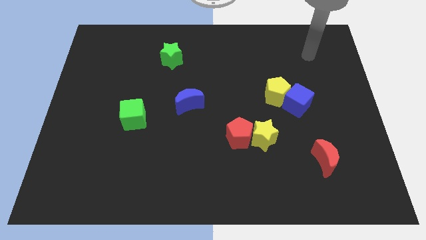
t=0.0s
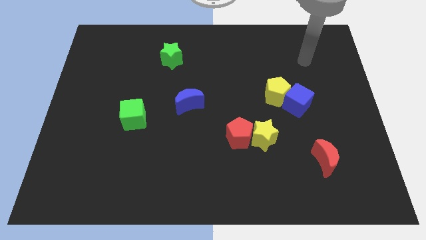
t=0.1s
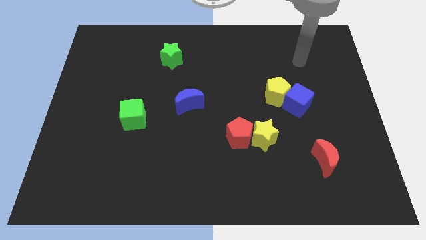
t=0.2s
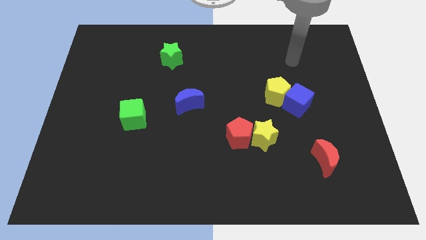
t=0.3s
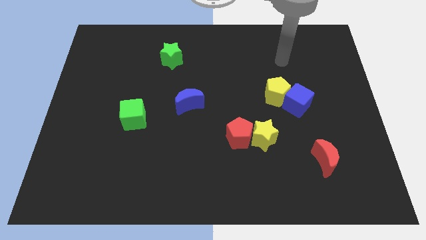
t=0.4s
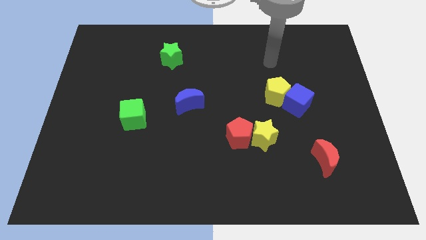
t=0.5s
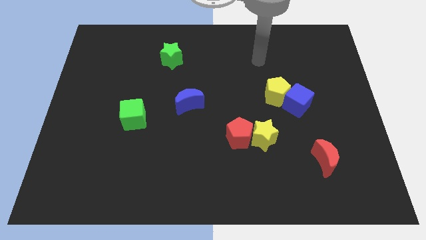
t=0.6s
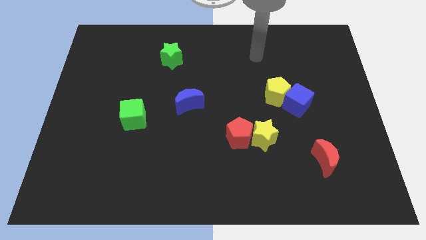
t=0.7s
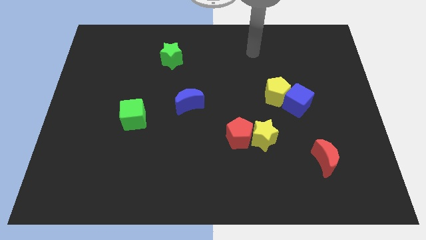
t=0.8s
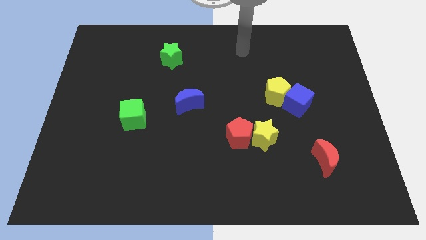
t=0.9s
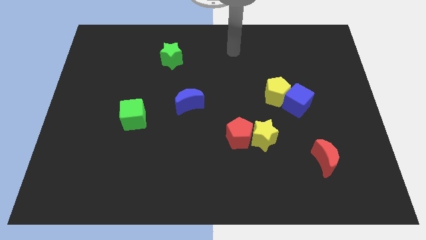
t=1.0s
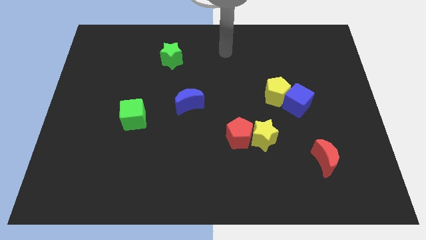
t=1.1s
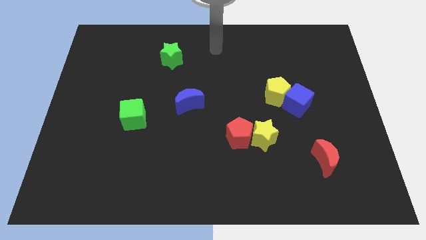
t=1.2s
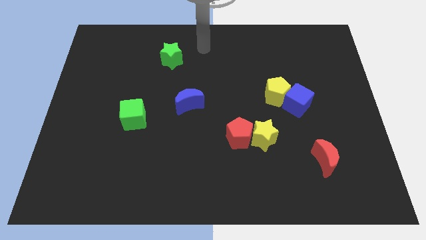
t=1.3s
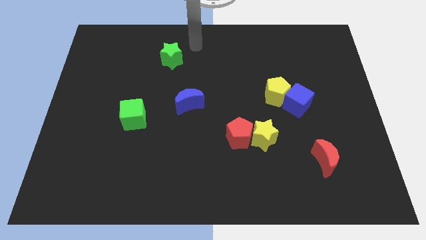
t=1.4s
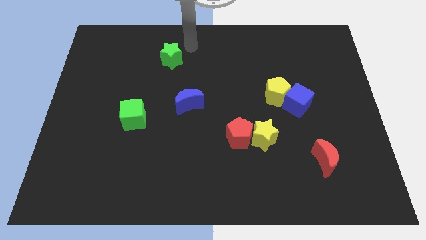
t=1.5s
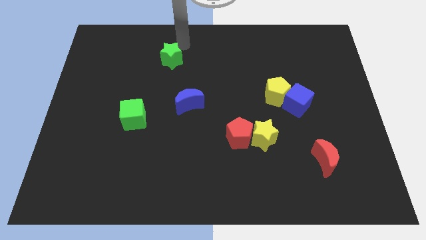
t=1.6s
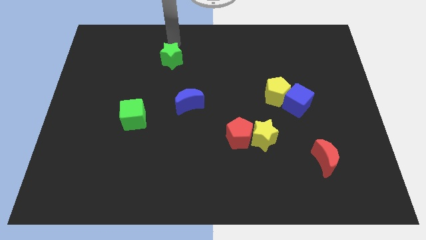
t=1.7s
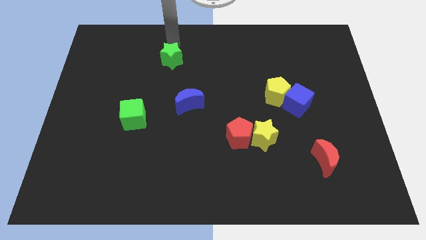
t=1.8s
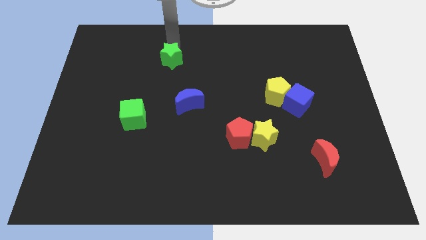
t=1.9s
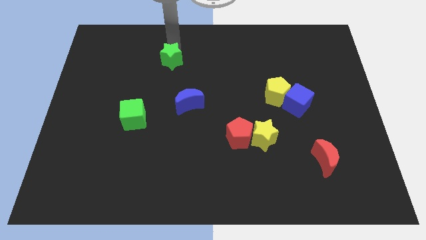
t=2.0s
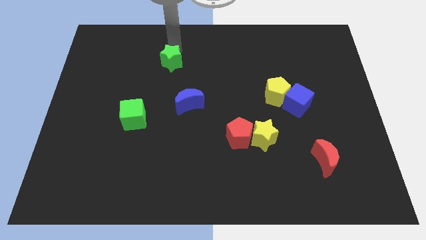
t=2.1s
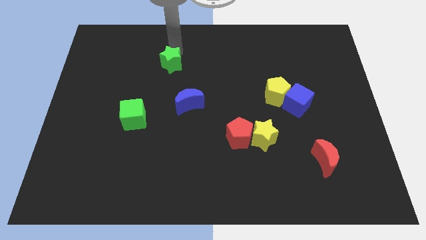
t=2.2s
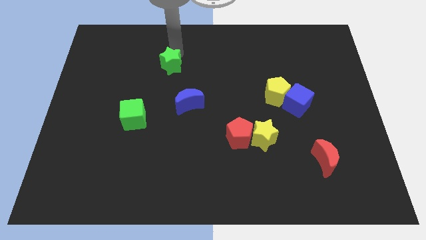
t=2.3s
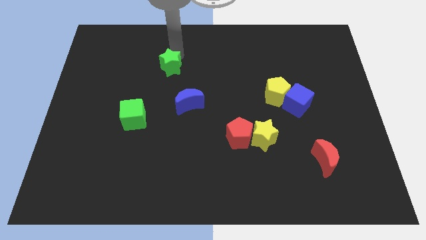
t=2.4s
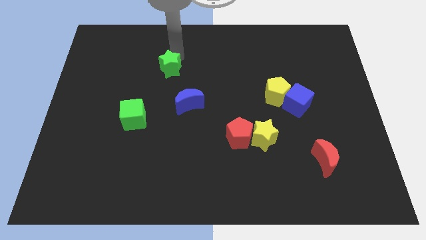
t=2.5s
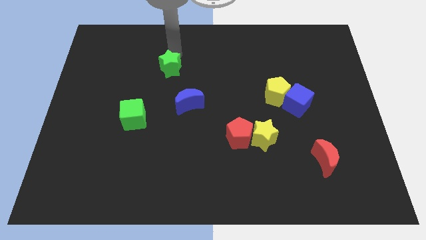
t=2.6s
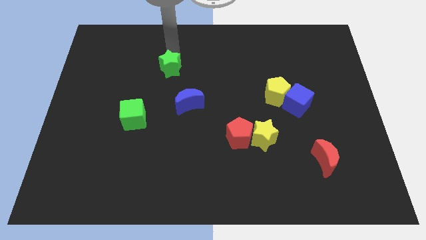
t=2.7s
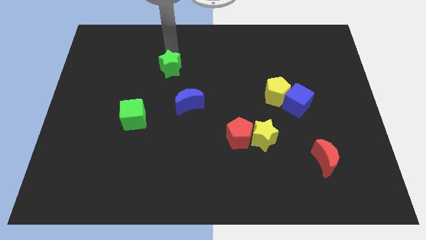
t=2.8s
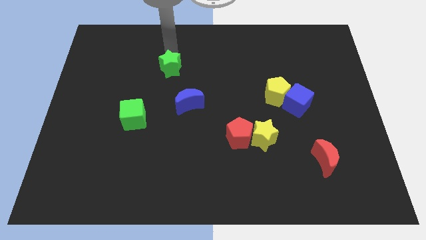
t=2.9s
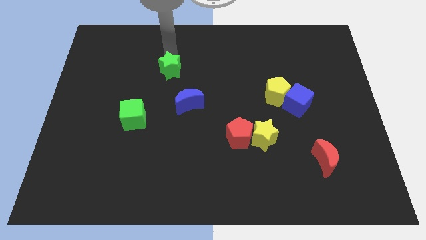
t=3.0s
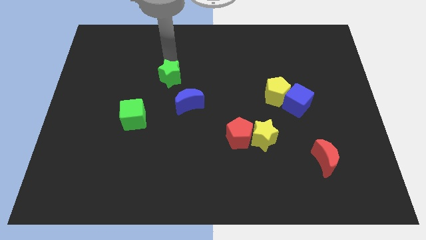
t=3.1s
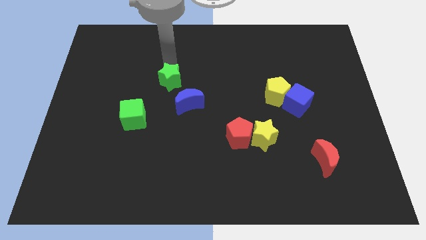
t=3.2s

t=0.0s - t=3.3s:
push the green star slightly down

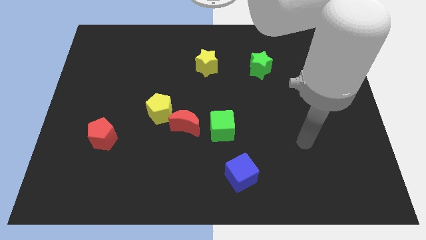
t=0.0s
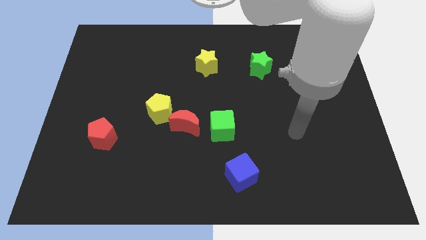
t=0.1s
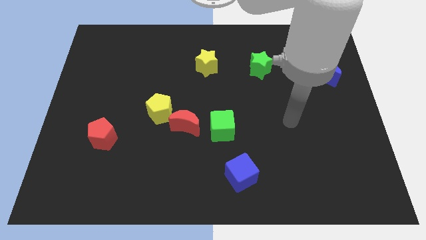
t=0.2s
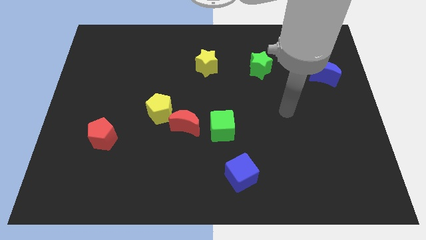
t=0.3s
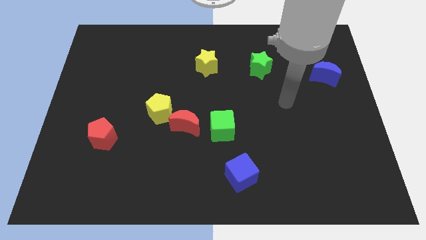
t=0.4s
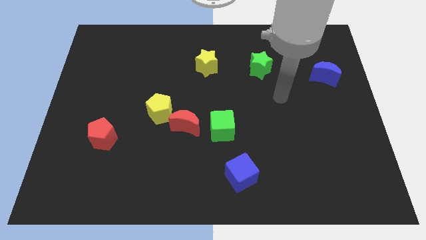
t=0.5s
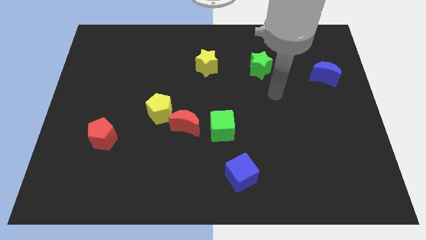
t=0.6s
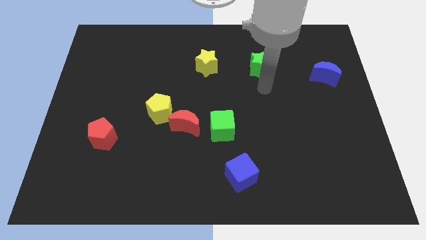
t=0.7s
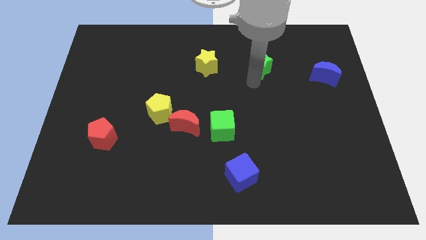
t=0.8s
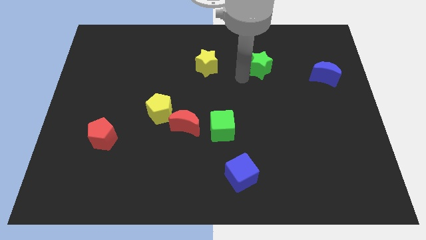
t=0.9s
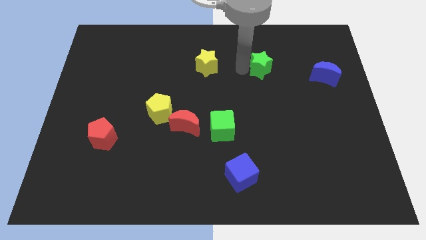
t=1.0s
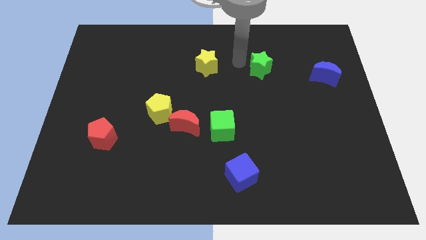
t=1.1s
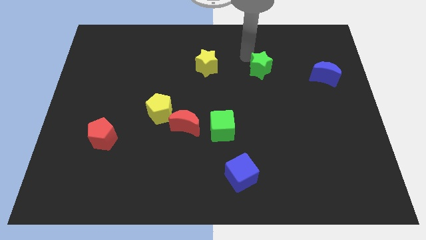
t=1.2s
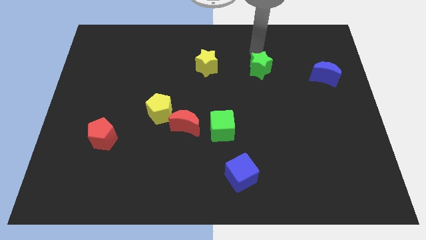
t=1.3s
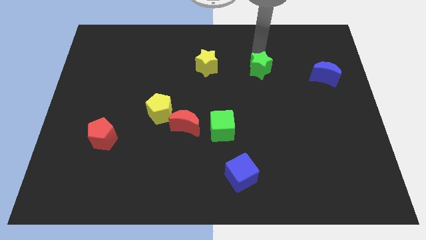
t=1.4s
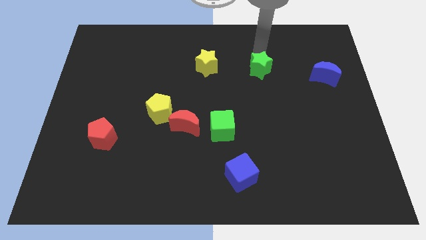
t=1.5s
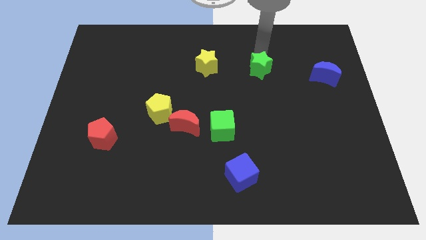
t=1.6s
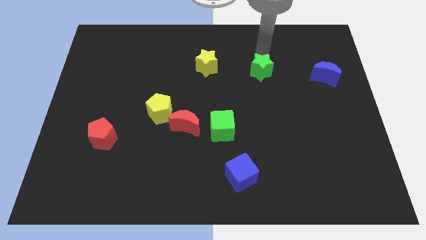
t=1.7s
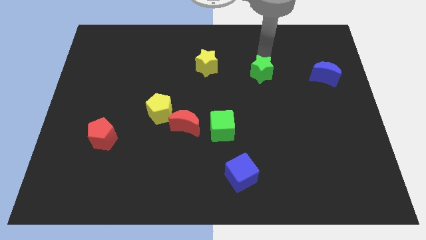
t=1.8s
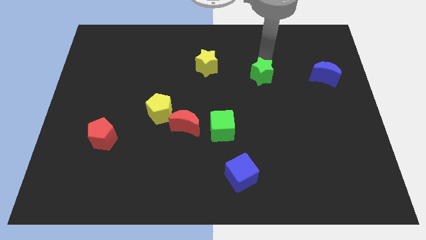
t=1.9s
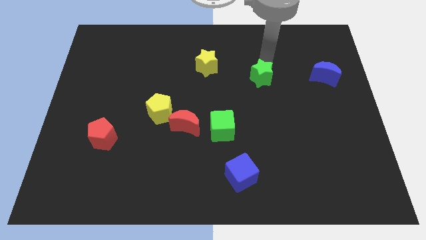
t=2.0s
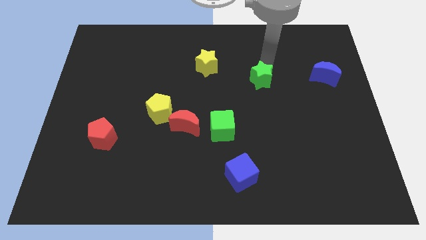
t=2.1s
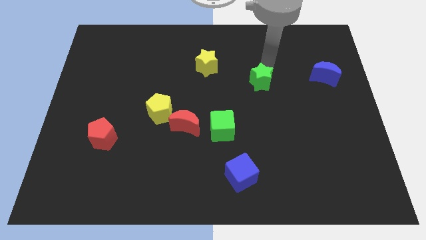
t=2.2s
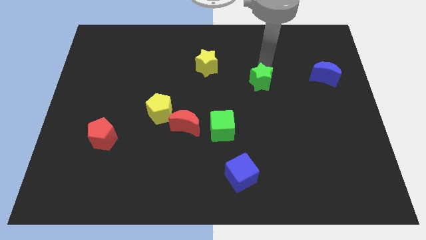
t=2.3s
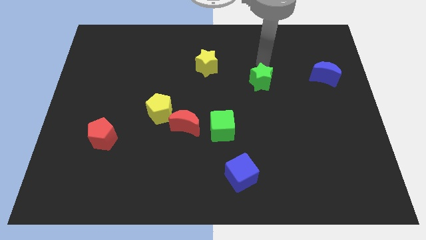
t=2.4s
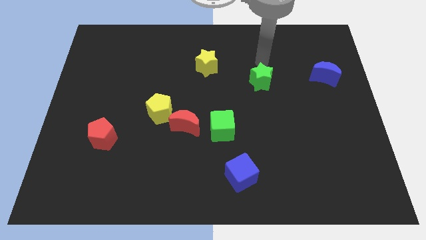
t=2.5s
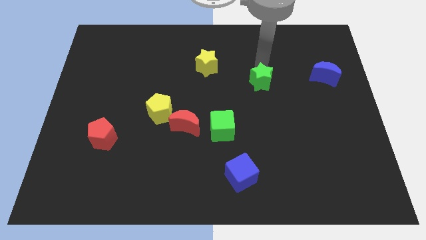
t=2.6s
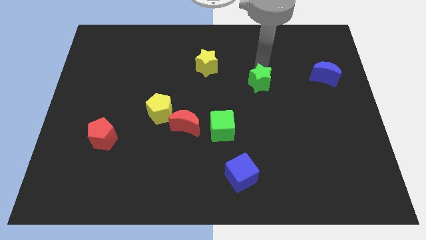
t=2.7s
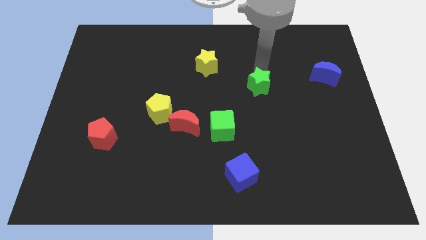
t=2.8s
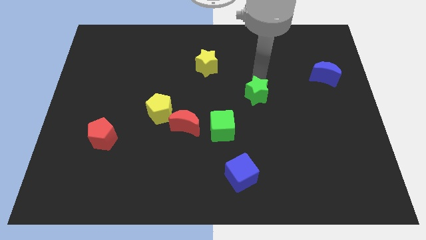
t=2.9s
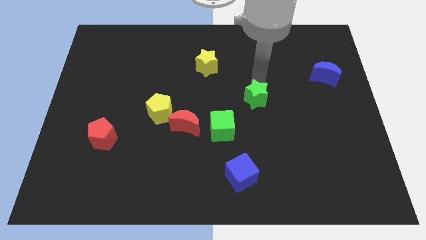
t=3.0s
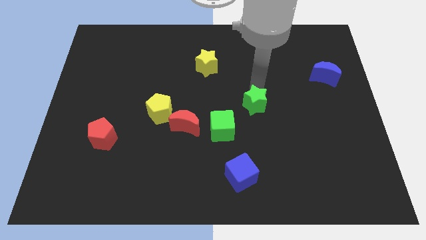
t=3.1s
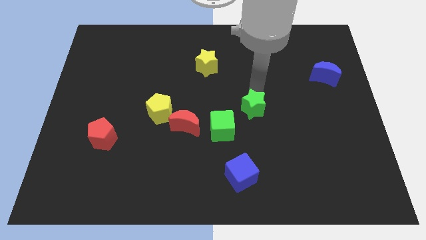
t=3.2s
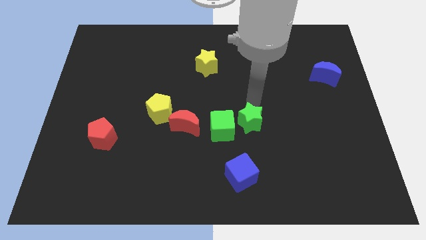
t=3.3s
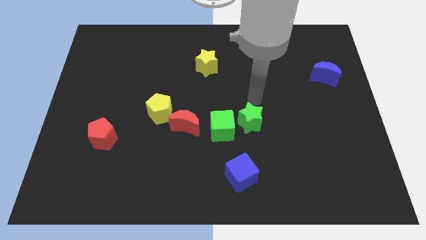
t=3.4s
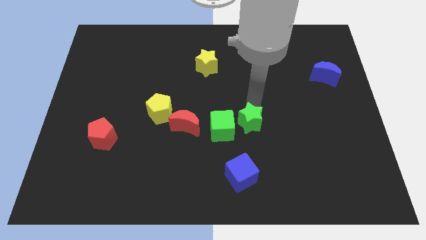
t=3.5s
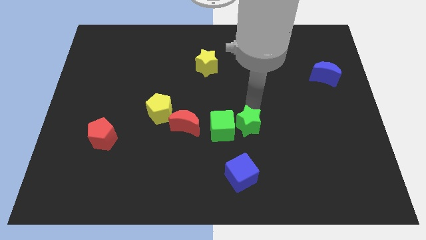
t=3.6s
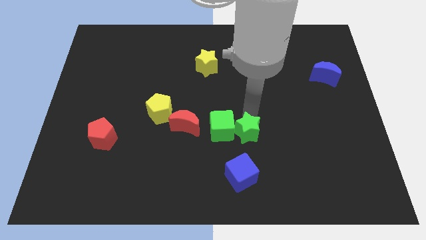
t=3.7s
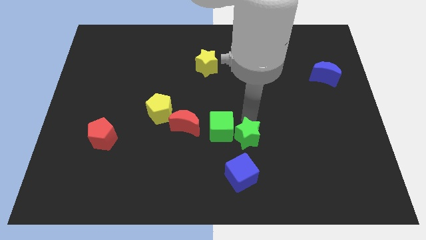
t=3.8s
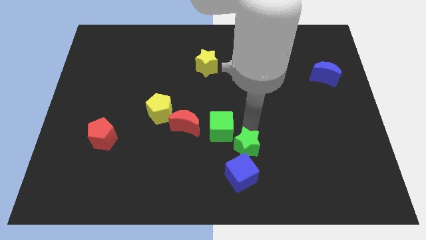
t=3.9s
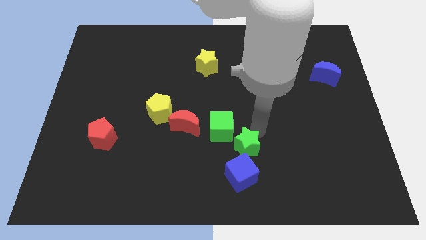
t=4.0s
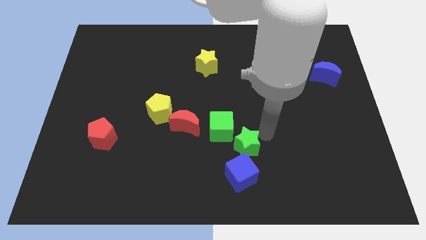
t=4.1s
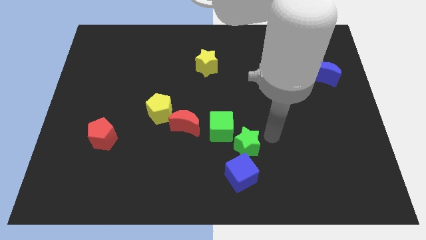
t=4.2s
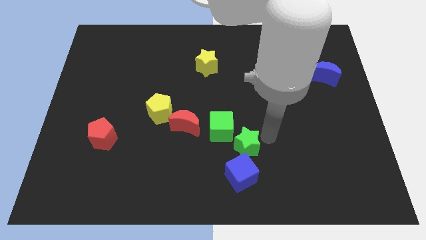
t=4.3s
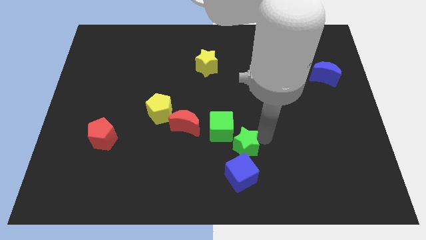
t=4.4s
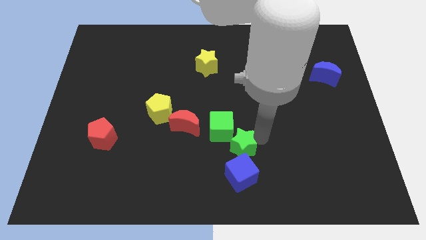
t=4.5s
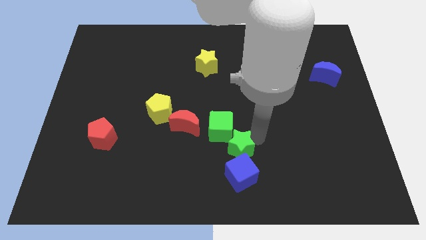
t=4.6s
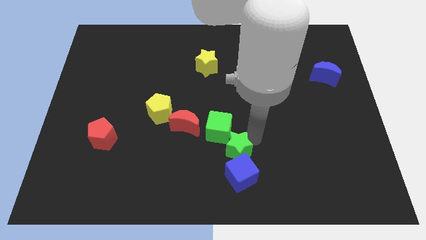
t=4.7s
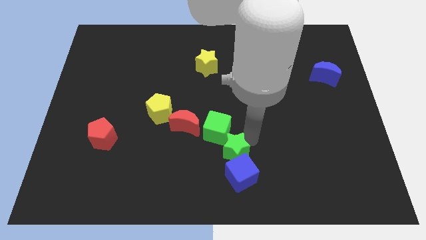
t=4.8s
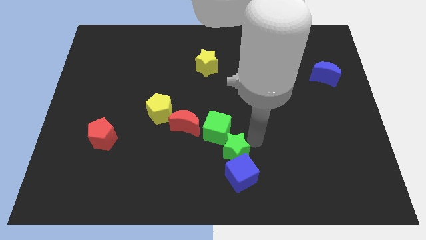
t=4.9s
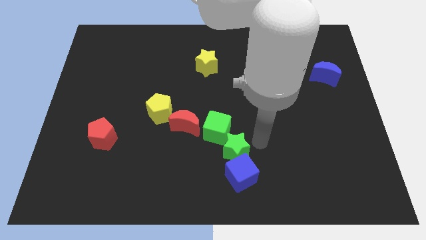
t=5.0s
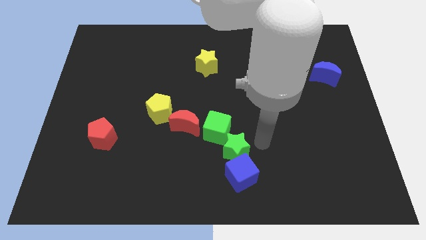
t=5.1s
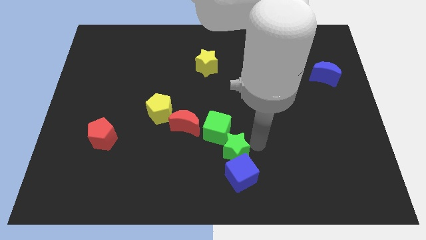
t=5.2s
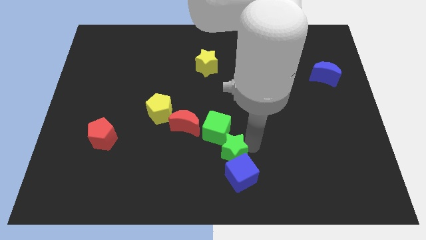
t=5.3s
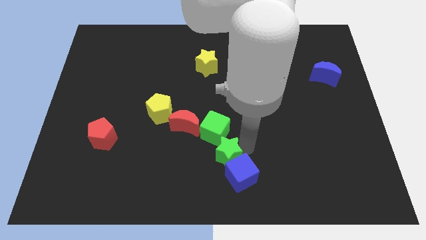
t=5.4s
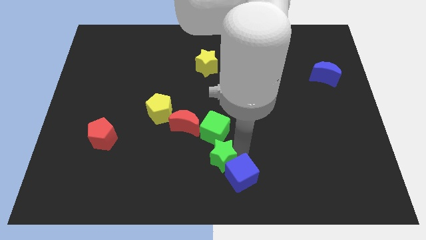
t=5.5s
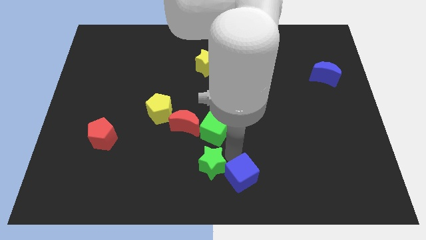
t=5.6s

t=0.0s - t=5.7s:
slide the green star down and then to the left
